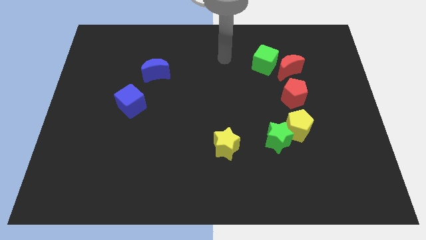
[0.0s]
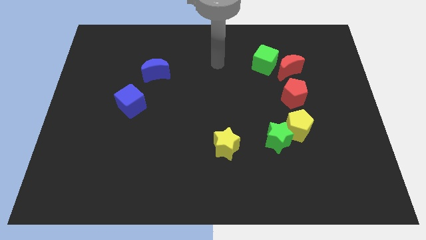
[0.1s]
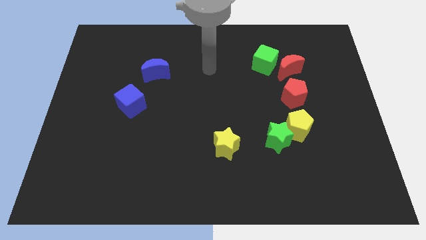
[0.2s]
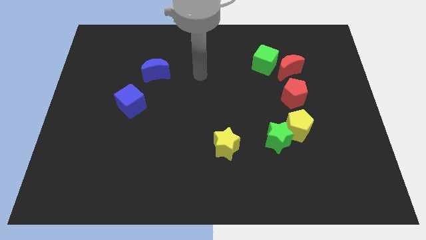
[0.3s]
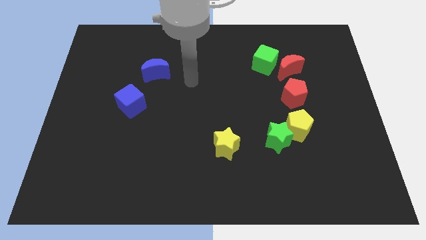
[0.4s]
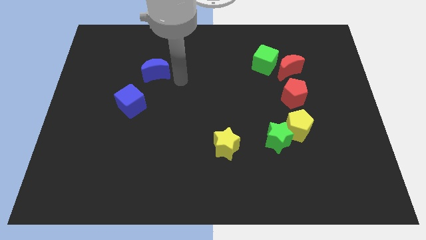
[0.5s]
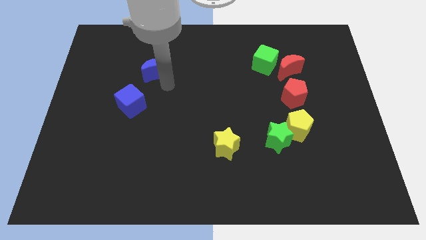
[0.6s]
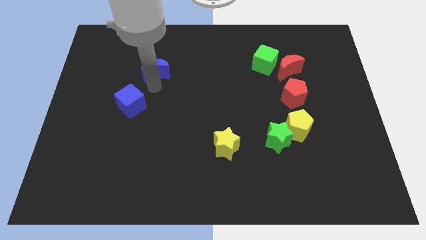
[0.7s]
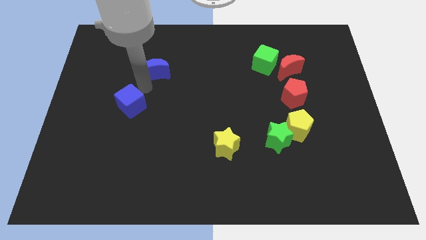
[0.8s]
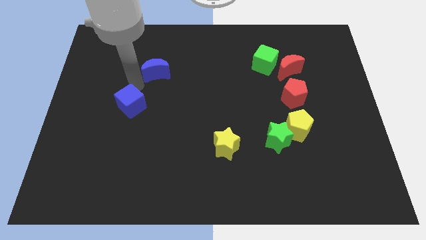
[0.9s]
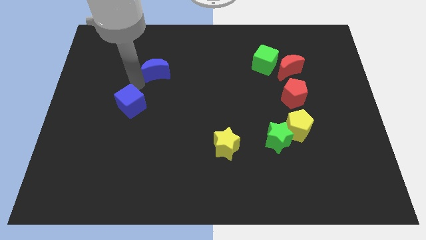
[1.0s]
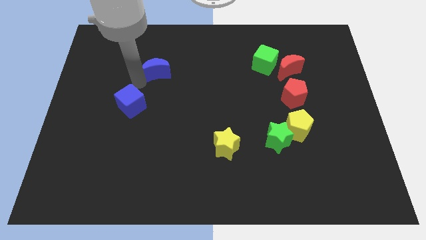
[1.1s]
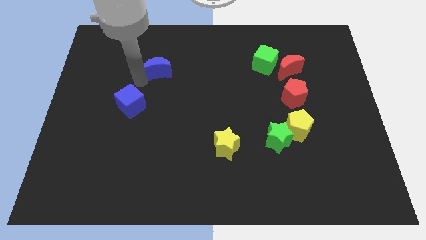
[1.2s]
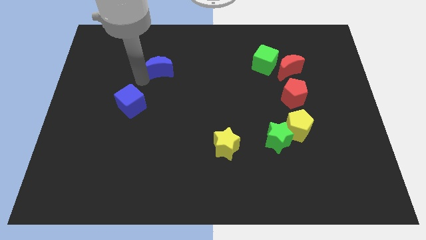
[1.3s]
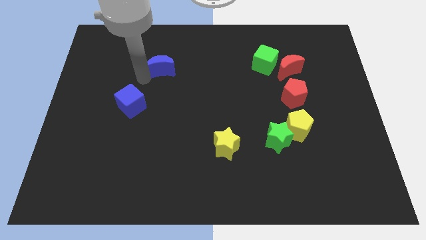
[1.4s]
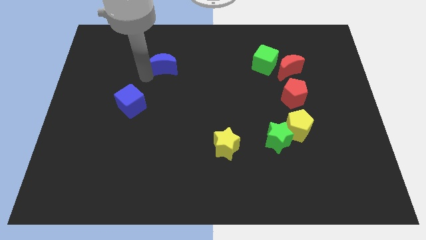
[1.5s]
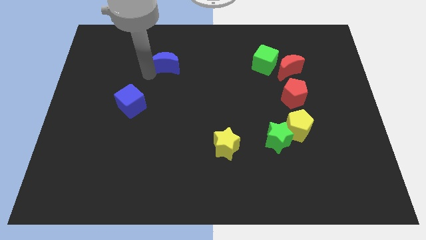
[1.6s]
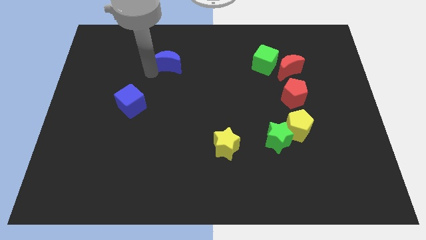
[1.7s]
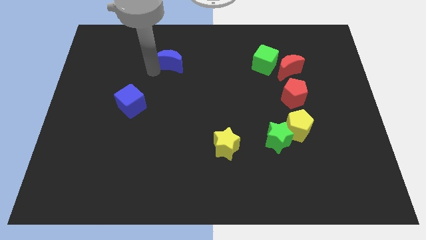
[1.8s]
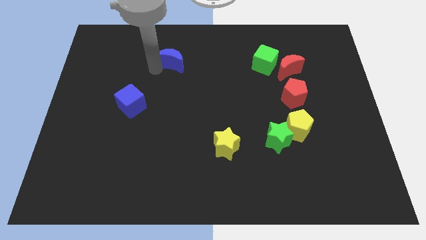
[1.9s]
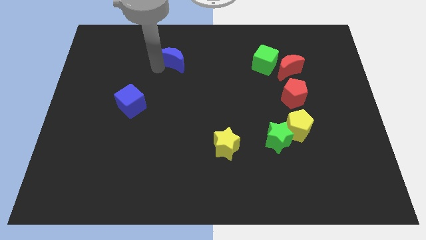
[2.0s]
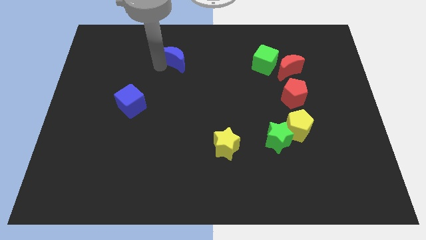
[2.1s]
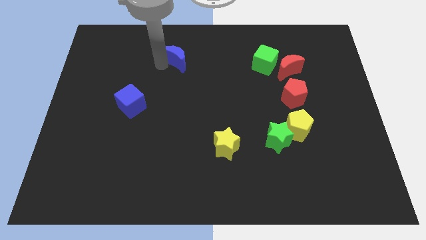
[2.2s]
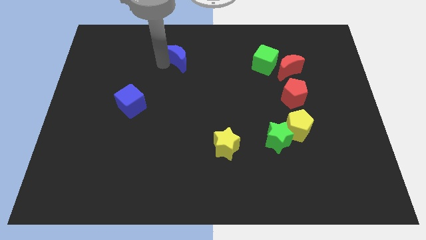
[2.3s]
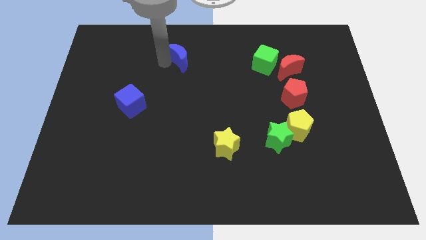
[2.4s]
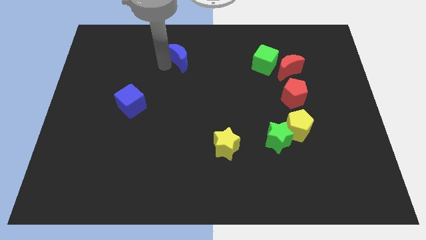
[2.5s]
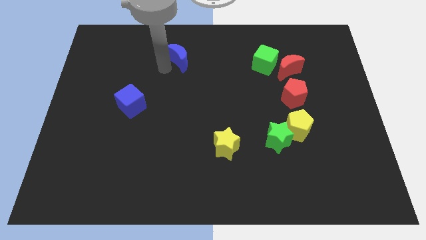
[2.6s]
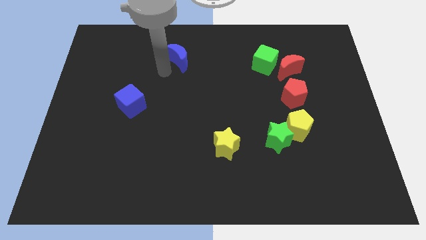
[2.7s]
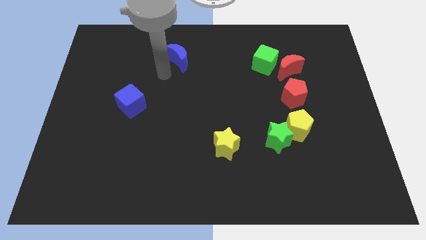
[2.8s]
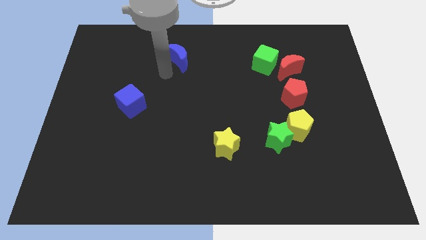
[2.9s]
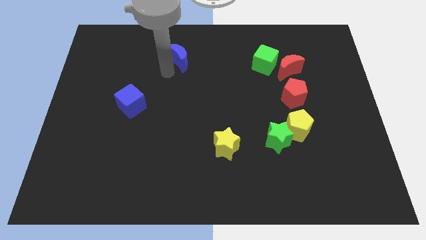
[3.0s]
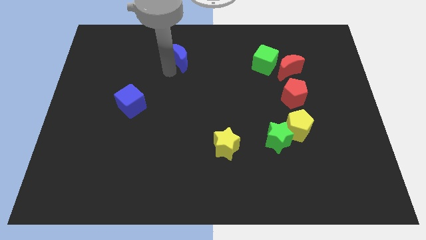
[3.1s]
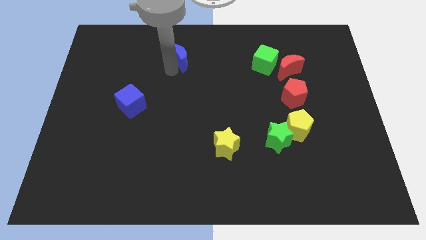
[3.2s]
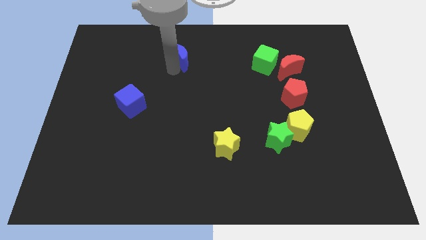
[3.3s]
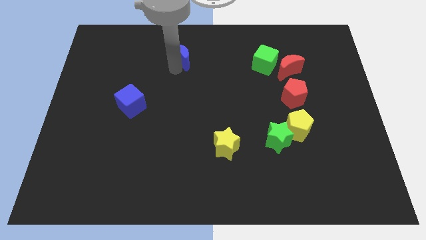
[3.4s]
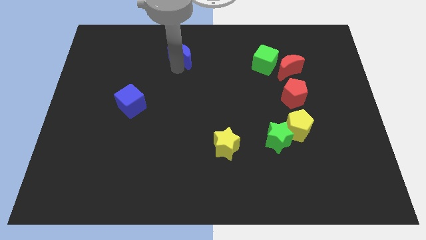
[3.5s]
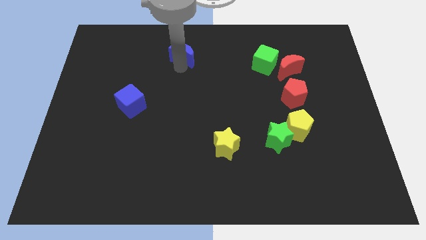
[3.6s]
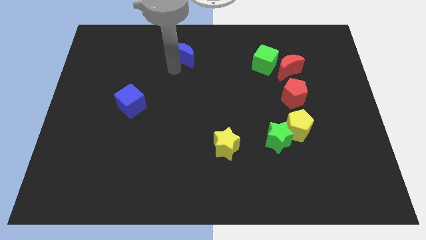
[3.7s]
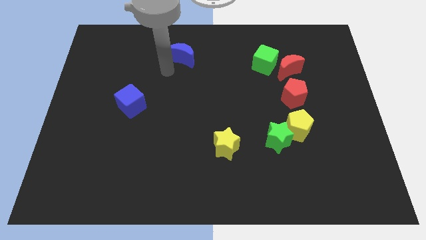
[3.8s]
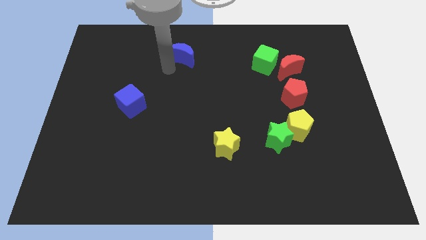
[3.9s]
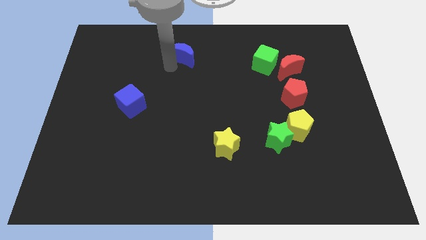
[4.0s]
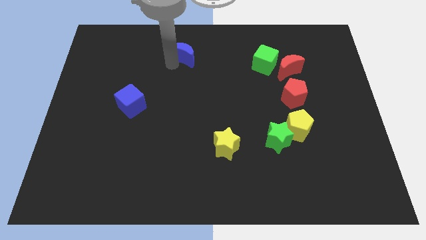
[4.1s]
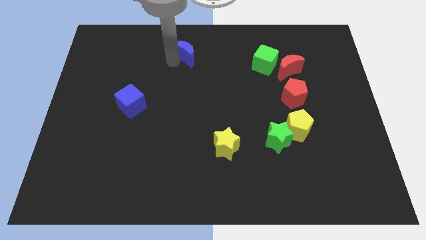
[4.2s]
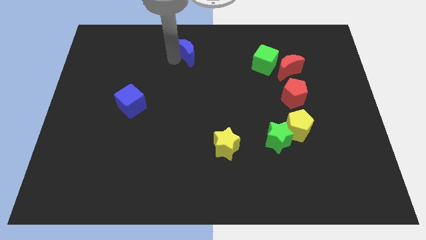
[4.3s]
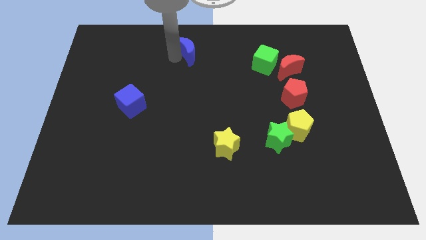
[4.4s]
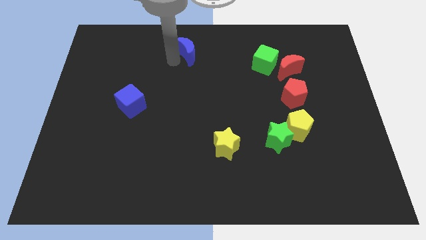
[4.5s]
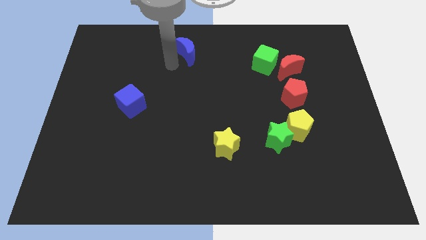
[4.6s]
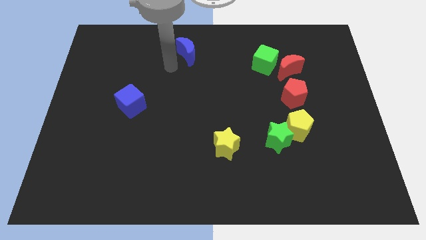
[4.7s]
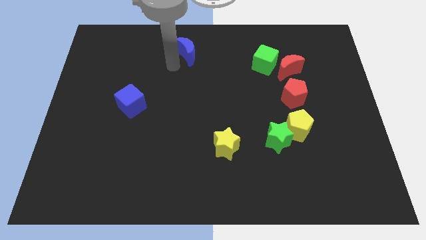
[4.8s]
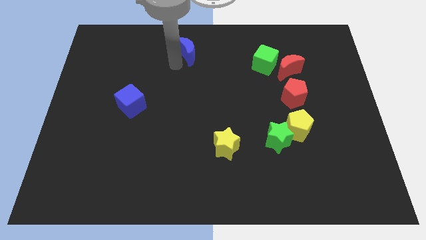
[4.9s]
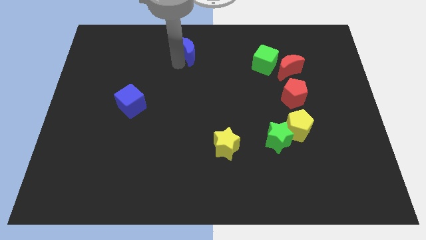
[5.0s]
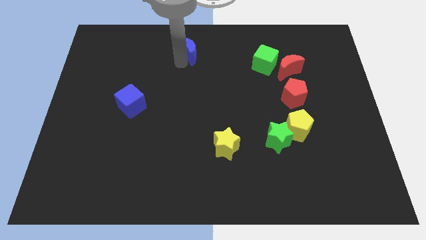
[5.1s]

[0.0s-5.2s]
slide the blue moon to the top
